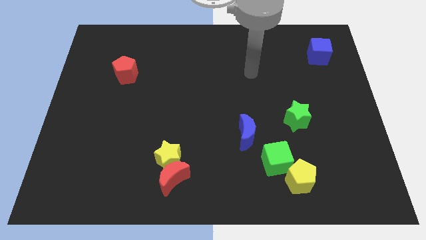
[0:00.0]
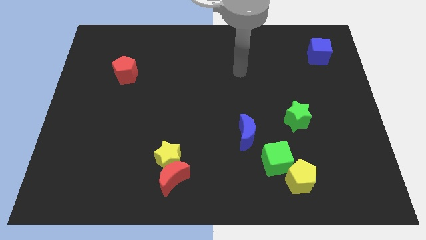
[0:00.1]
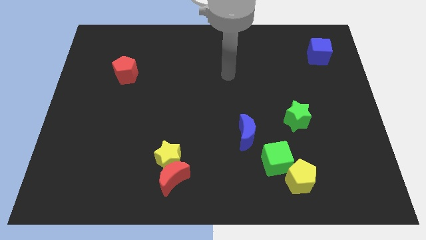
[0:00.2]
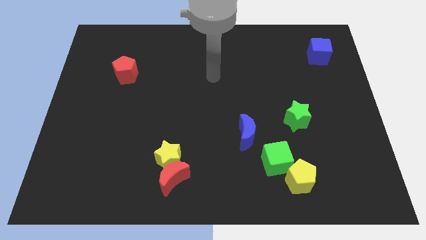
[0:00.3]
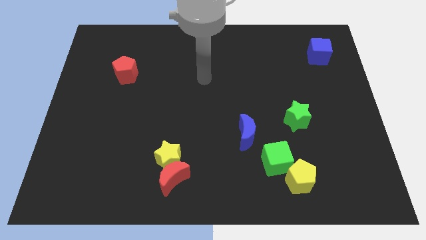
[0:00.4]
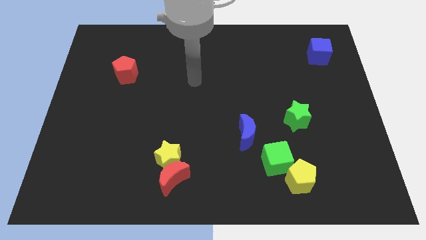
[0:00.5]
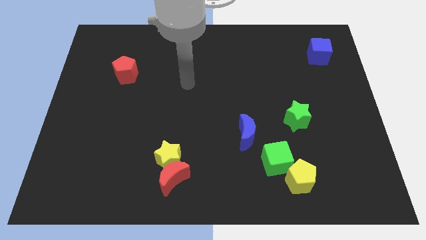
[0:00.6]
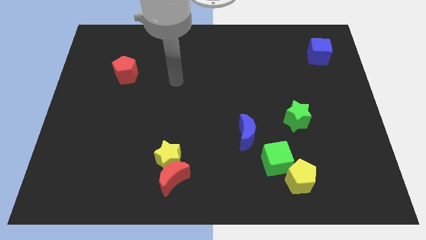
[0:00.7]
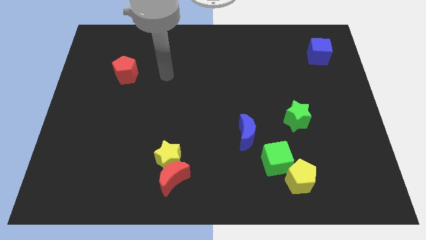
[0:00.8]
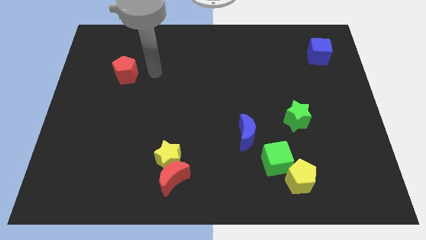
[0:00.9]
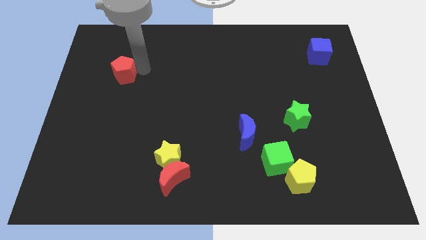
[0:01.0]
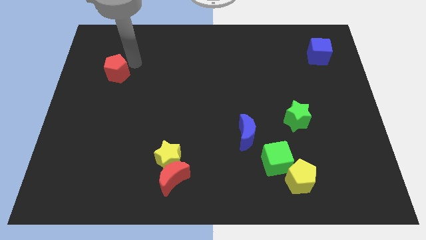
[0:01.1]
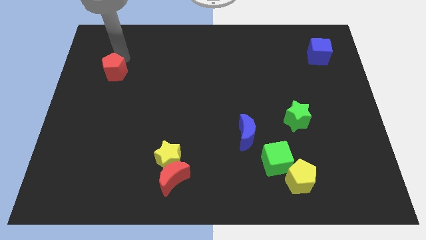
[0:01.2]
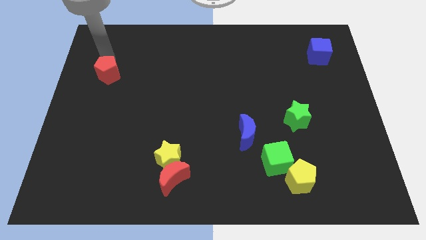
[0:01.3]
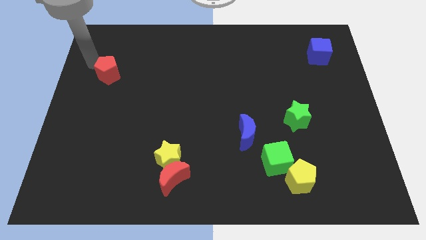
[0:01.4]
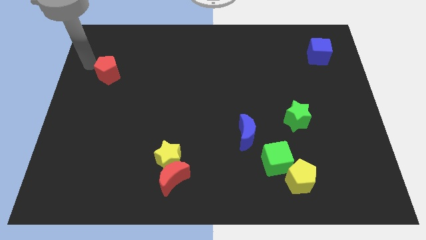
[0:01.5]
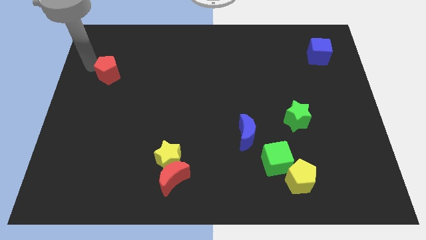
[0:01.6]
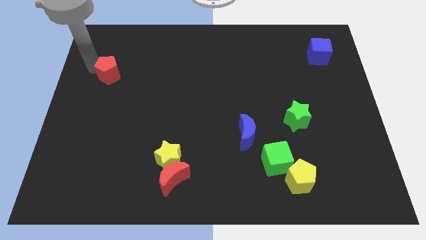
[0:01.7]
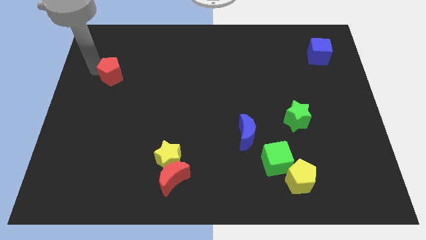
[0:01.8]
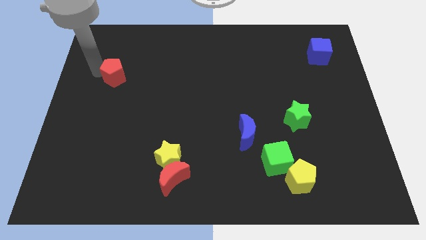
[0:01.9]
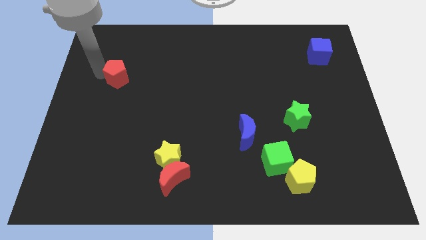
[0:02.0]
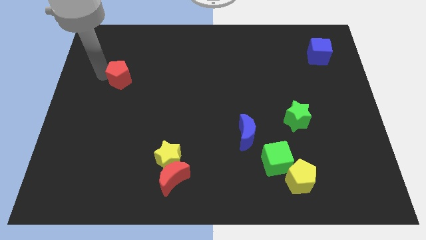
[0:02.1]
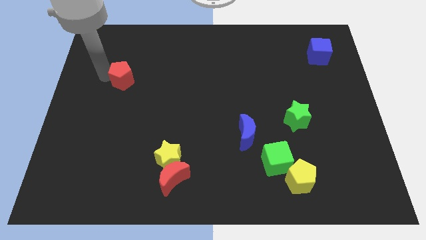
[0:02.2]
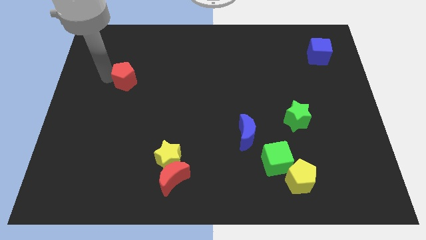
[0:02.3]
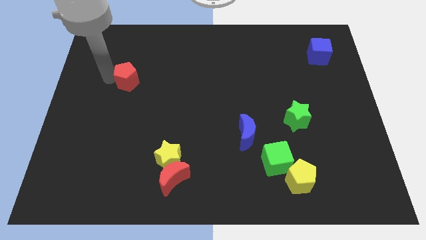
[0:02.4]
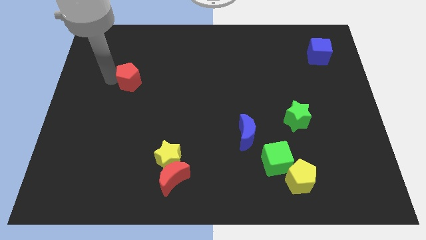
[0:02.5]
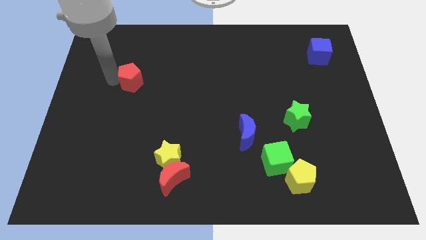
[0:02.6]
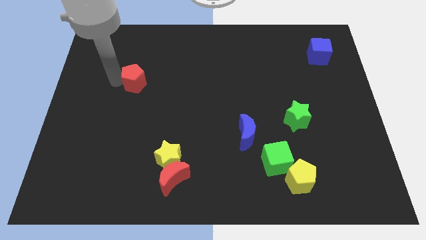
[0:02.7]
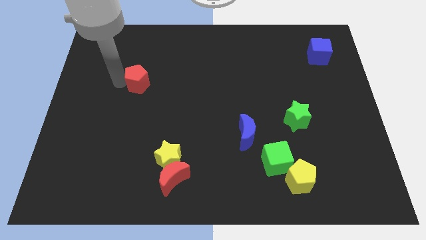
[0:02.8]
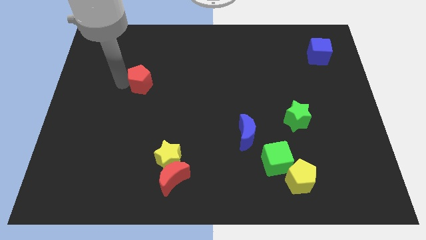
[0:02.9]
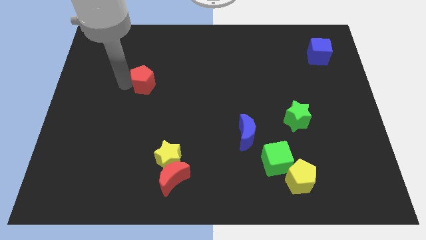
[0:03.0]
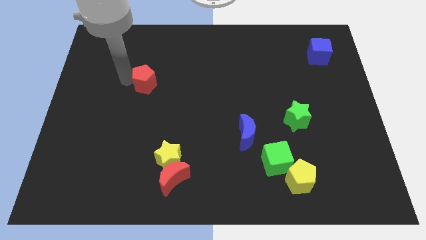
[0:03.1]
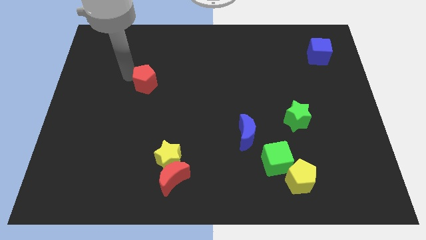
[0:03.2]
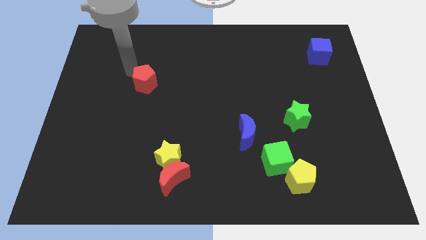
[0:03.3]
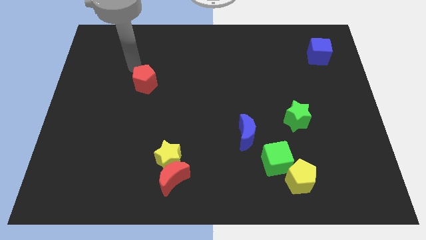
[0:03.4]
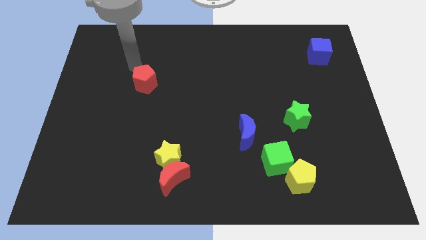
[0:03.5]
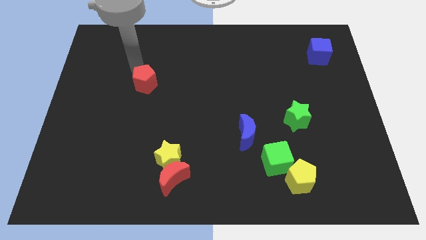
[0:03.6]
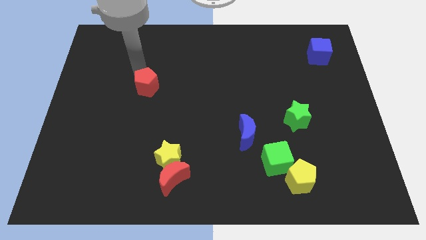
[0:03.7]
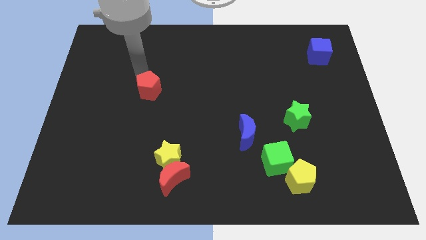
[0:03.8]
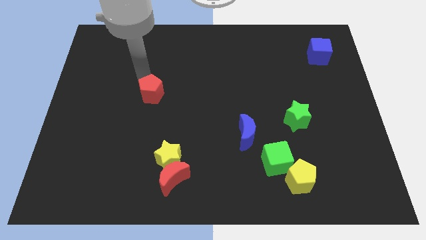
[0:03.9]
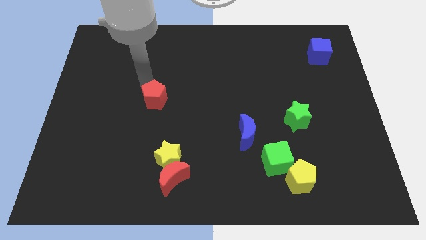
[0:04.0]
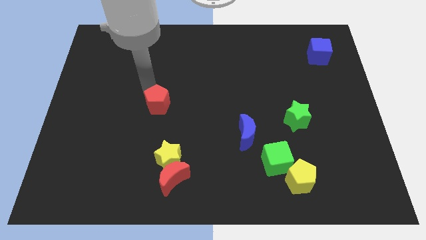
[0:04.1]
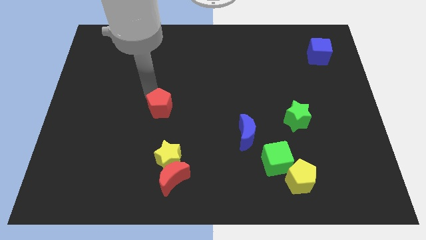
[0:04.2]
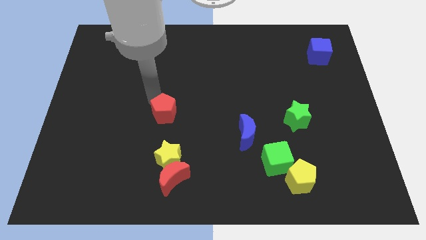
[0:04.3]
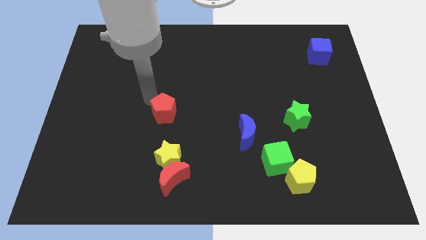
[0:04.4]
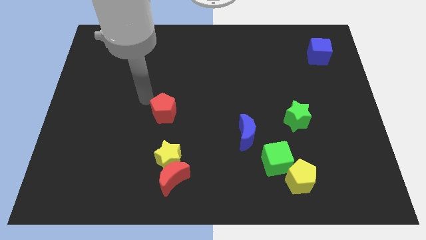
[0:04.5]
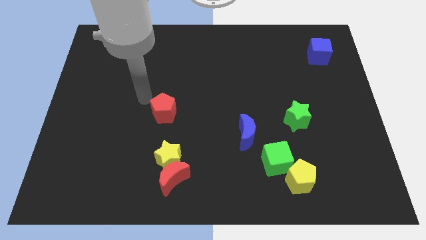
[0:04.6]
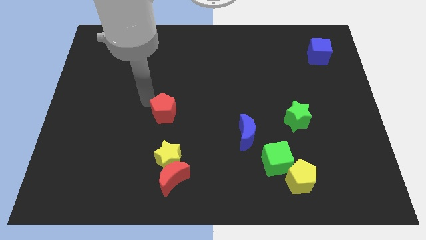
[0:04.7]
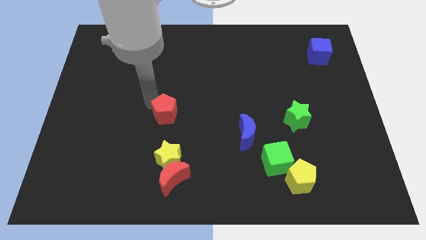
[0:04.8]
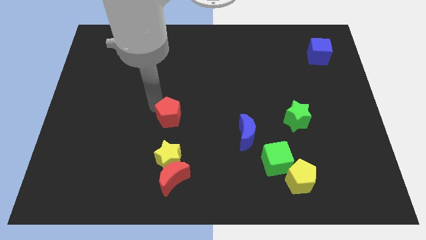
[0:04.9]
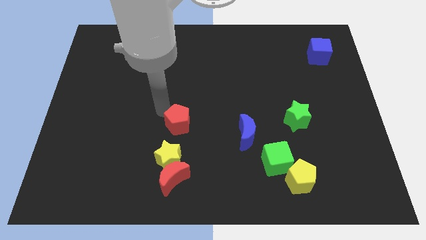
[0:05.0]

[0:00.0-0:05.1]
push the red pentagon down and to the right

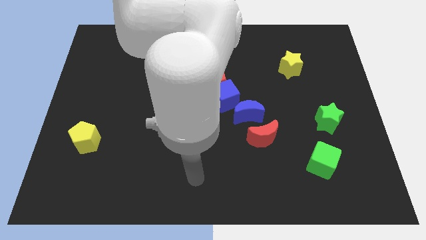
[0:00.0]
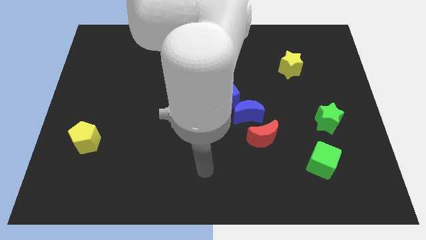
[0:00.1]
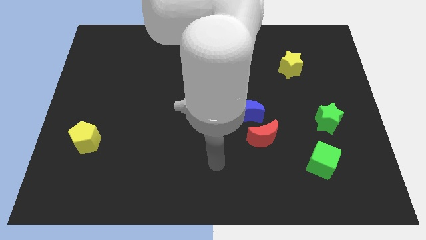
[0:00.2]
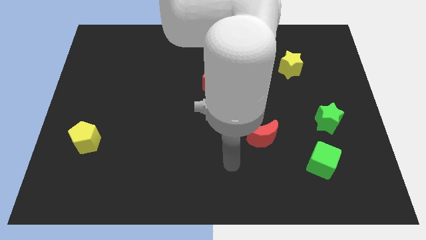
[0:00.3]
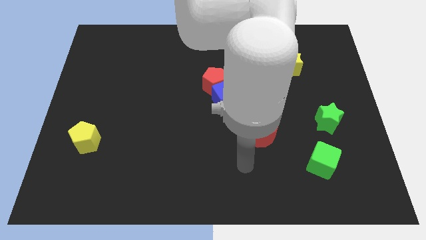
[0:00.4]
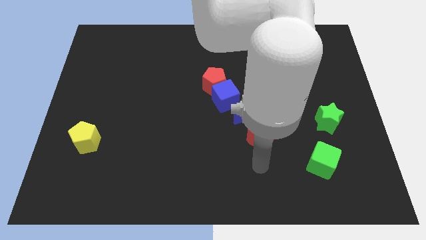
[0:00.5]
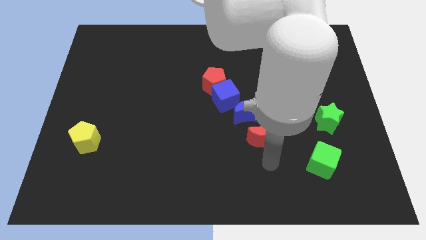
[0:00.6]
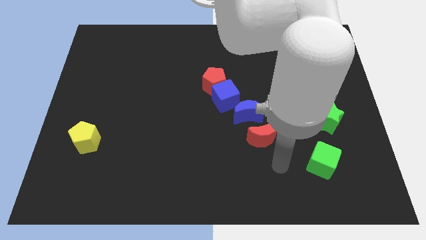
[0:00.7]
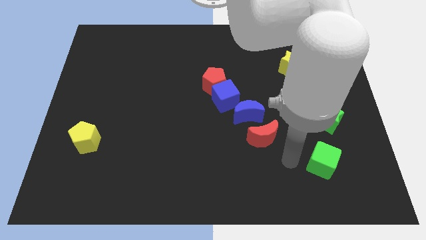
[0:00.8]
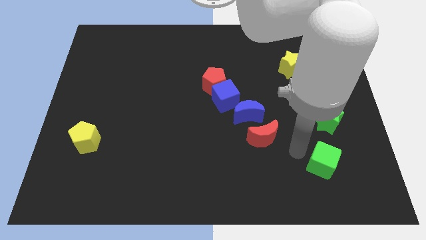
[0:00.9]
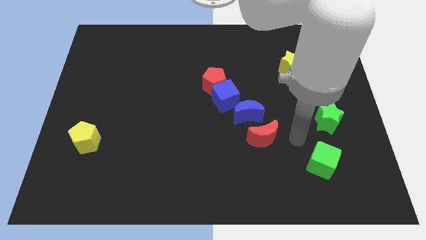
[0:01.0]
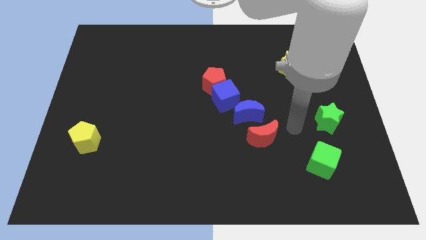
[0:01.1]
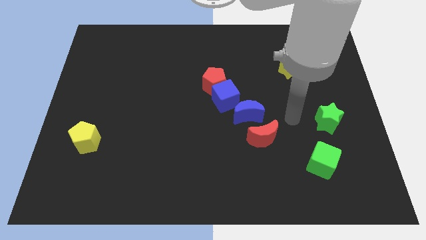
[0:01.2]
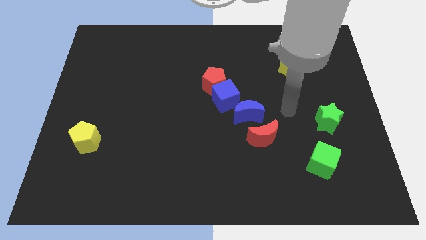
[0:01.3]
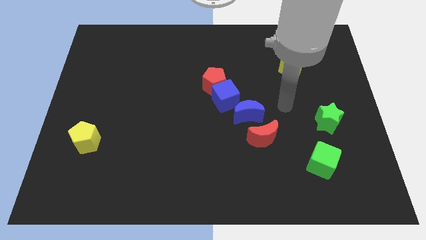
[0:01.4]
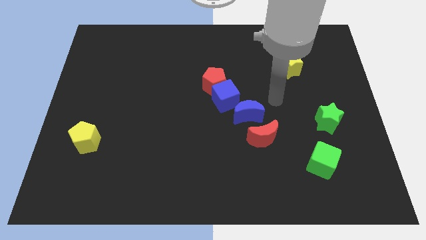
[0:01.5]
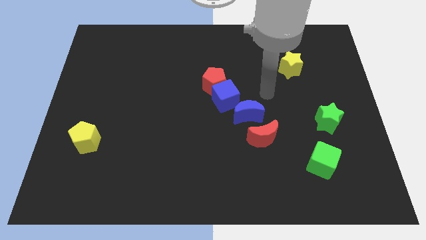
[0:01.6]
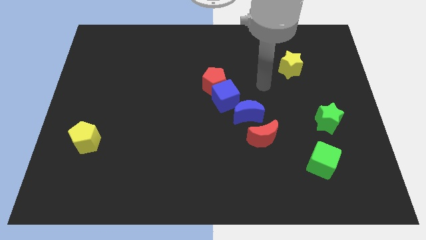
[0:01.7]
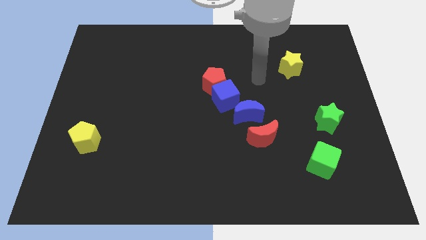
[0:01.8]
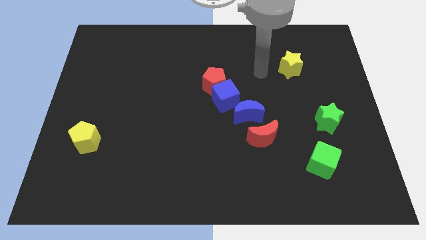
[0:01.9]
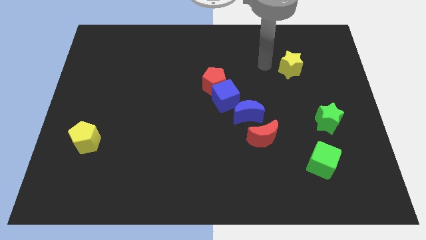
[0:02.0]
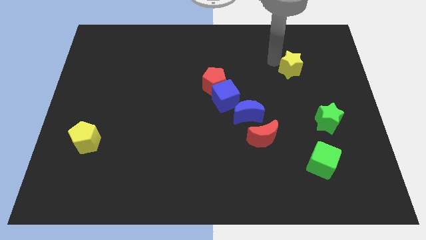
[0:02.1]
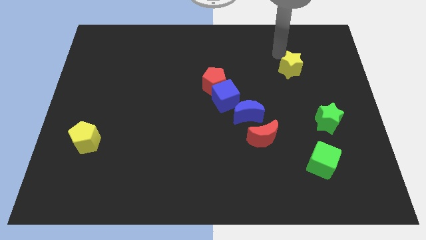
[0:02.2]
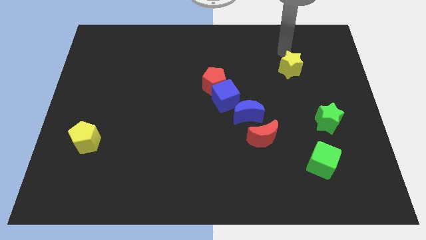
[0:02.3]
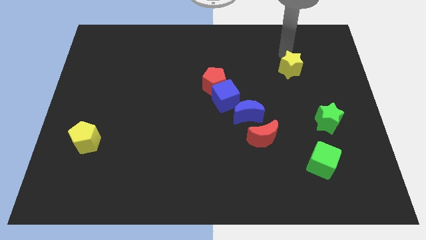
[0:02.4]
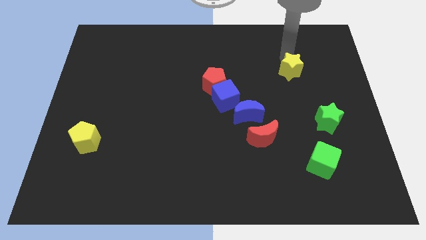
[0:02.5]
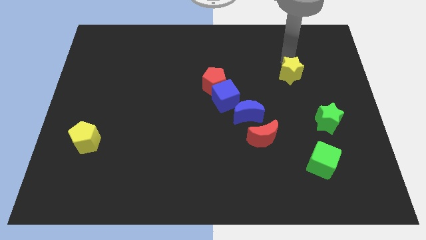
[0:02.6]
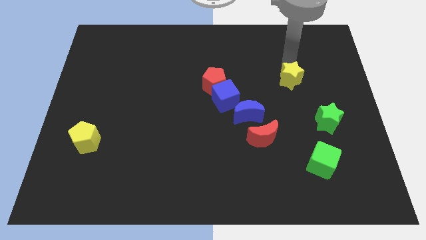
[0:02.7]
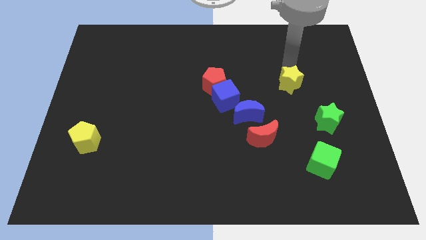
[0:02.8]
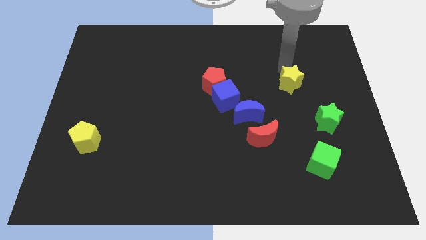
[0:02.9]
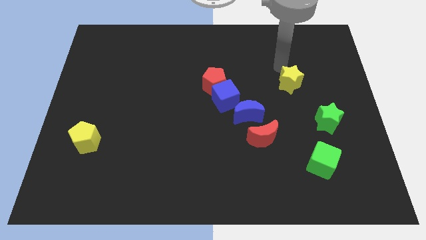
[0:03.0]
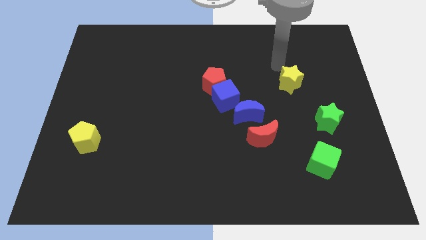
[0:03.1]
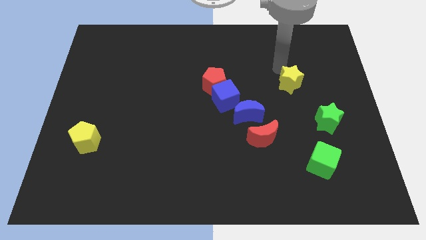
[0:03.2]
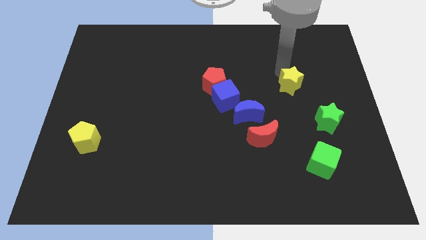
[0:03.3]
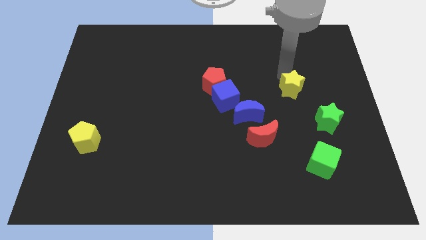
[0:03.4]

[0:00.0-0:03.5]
slide the yellow star down a little
